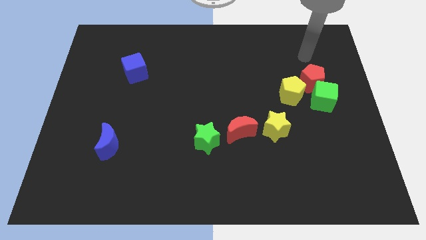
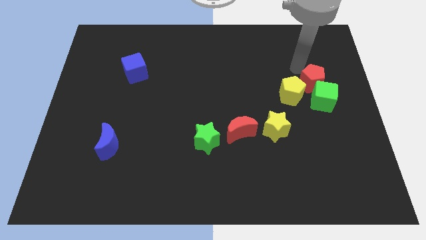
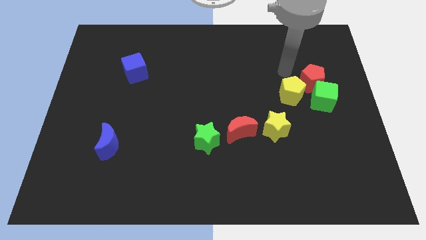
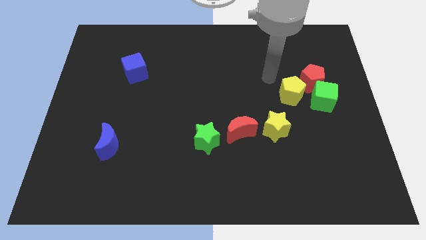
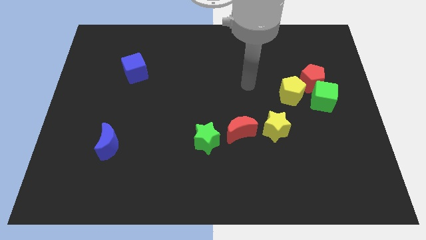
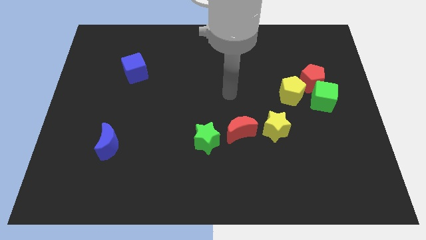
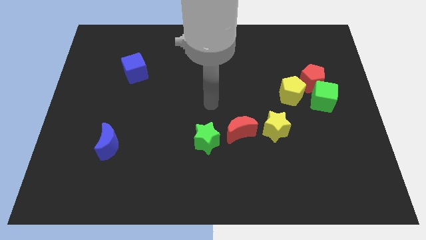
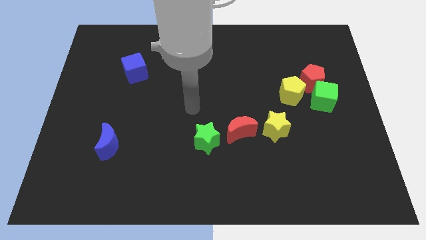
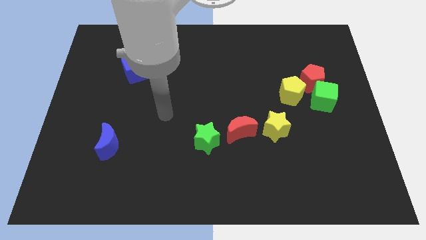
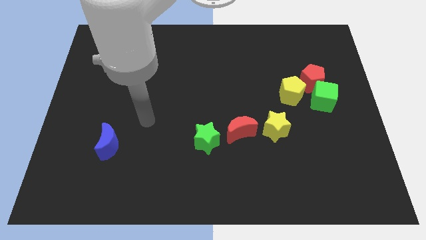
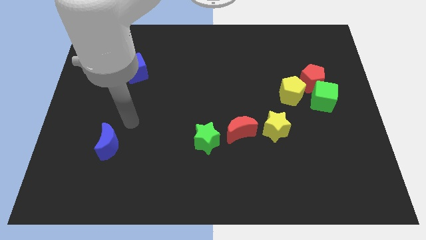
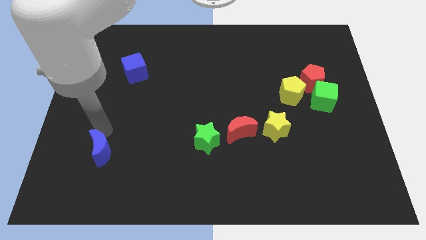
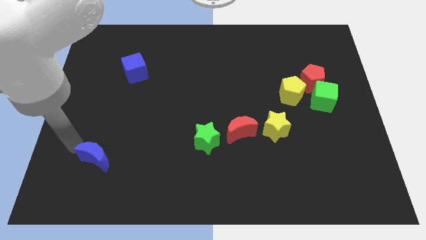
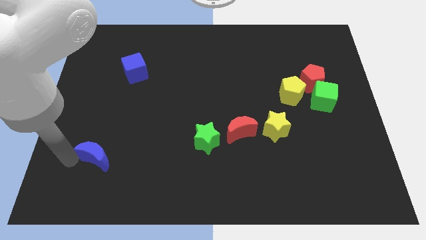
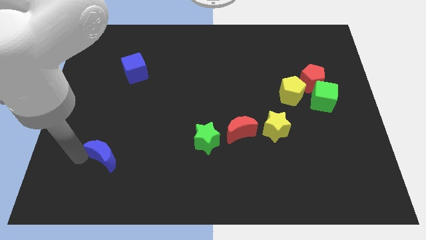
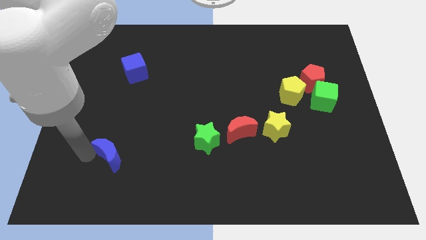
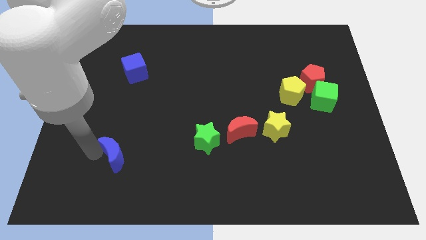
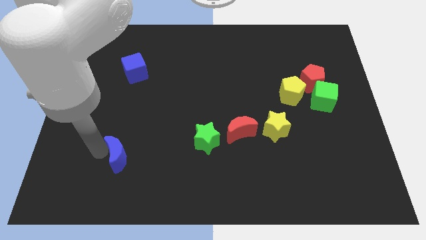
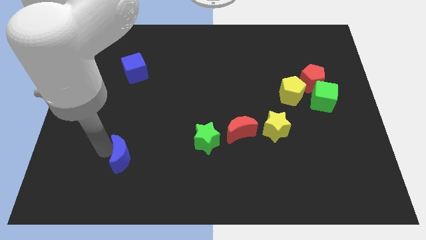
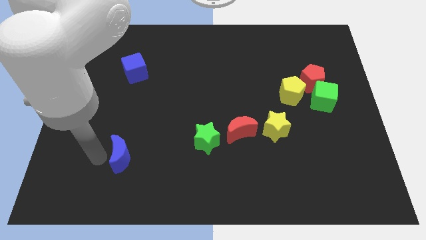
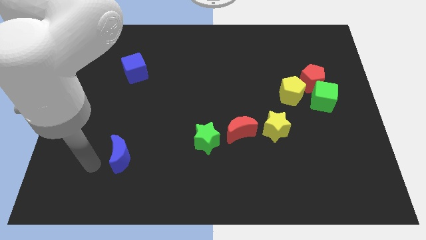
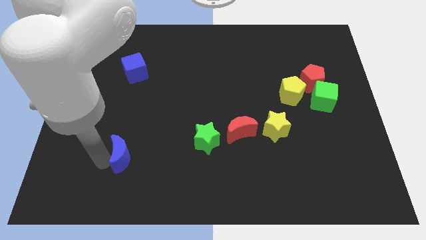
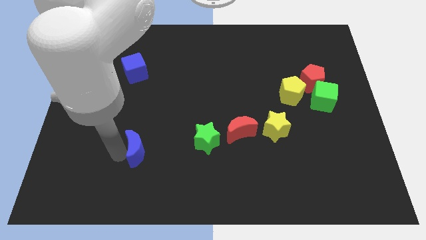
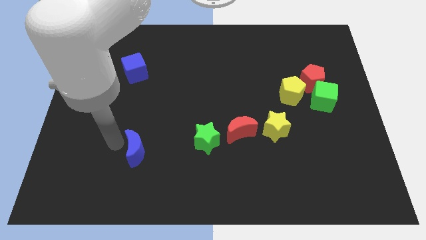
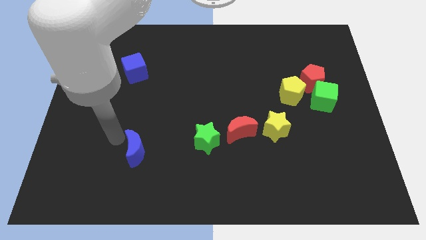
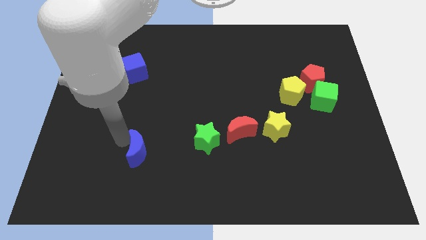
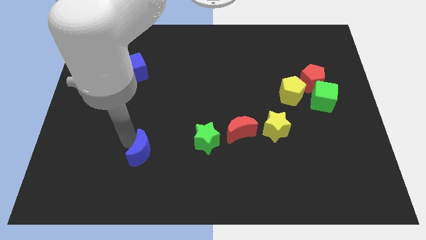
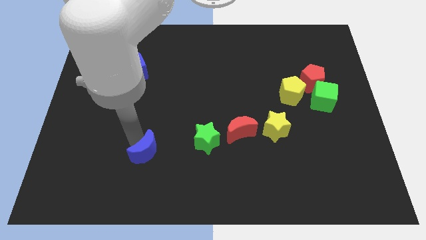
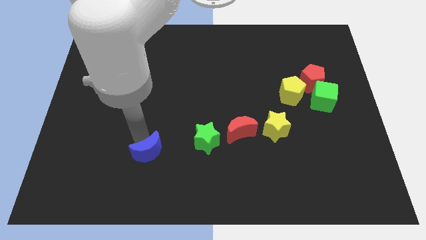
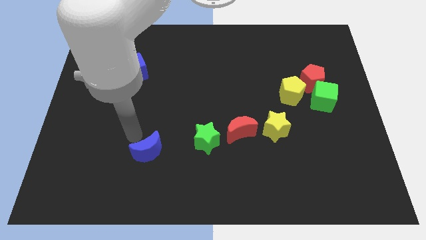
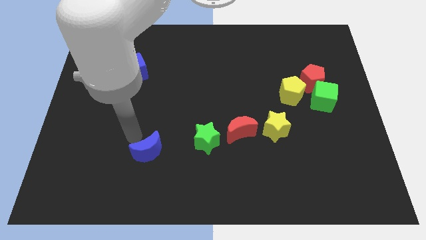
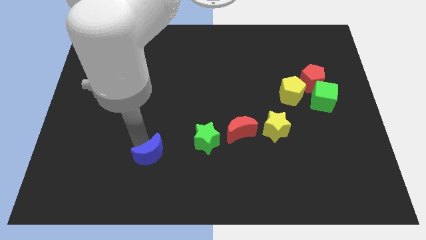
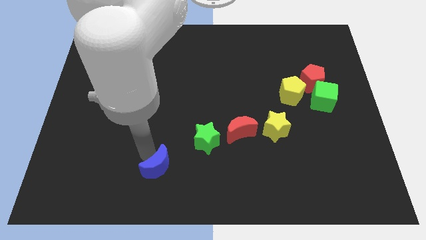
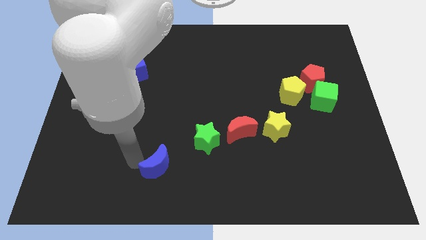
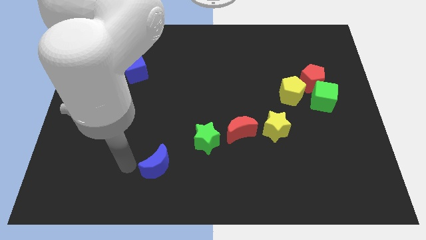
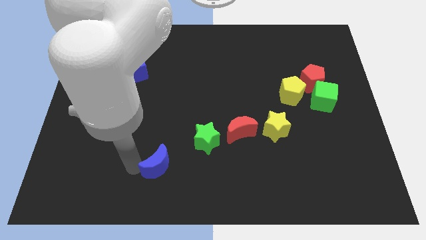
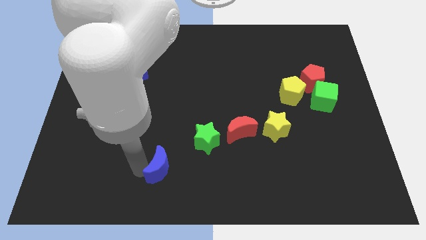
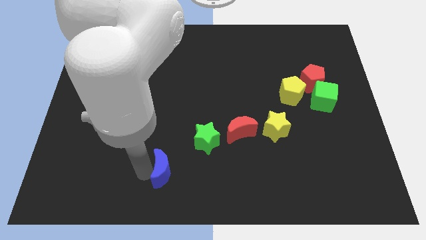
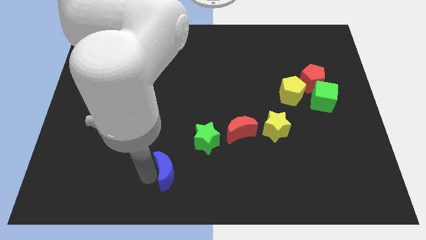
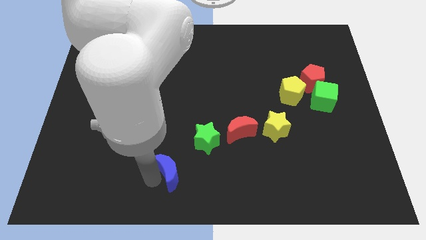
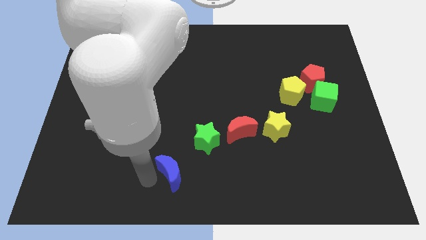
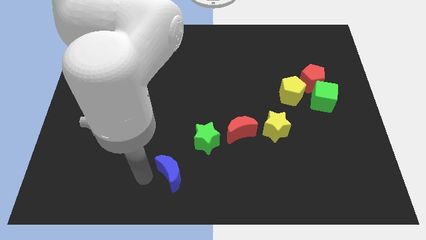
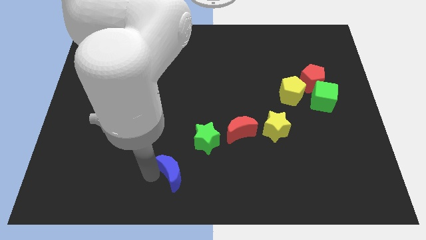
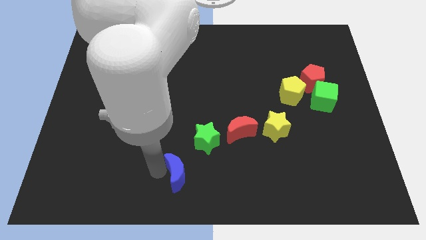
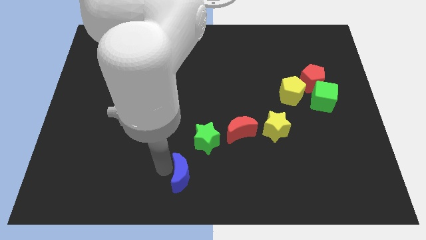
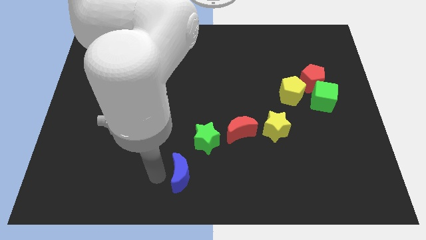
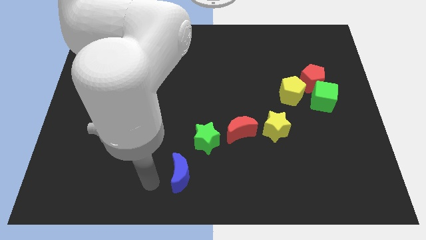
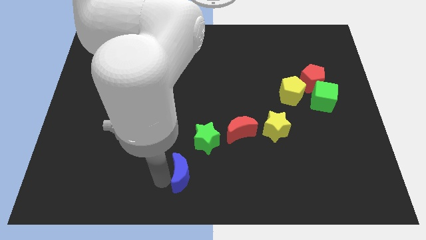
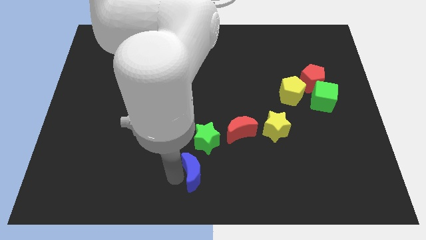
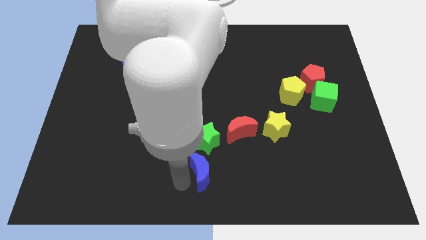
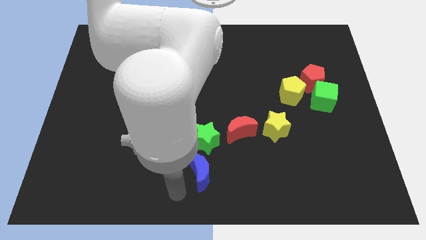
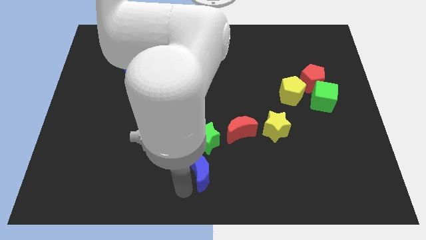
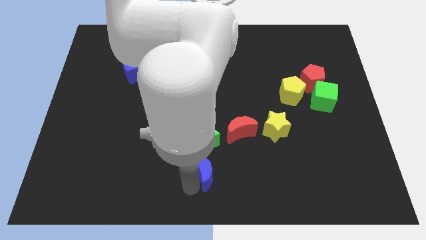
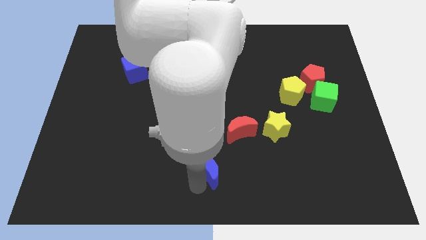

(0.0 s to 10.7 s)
slide the blue moon right

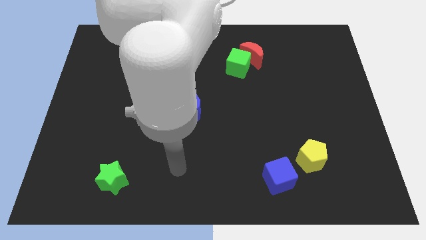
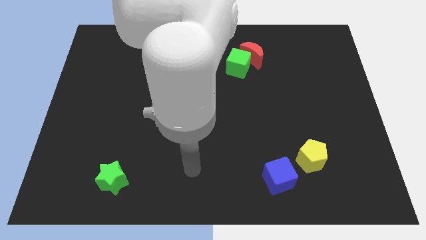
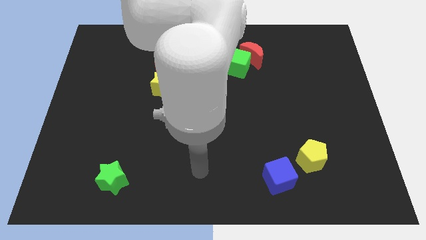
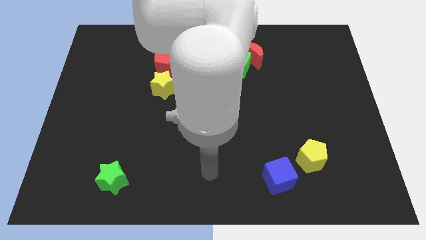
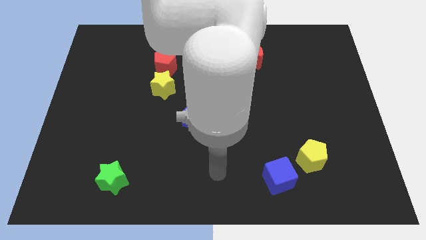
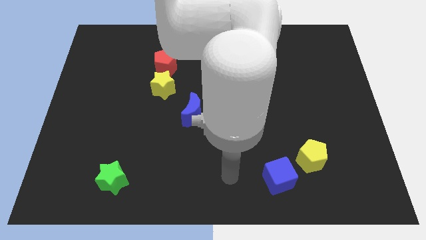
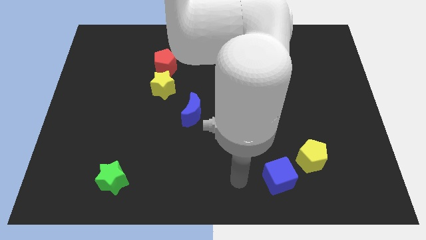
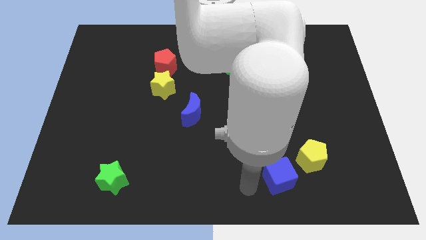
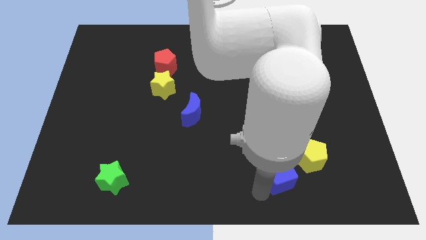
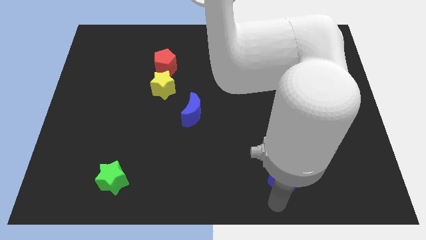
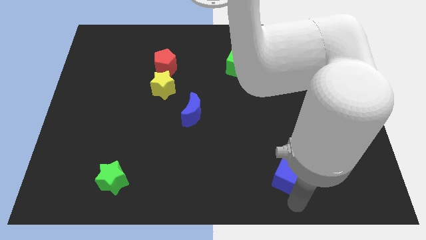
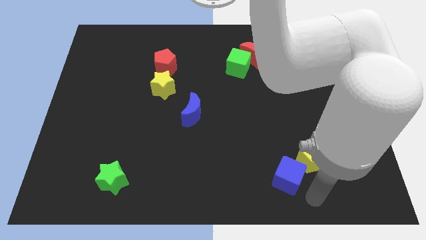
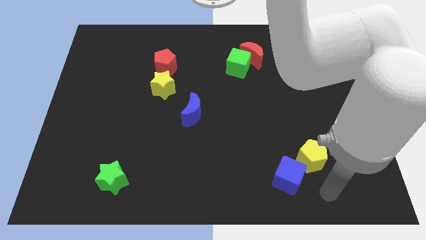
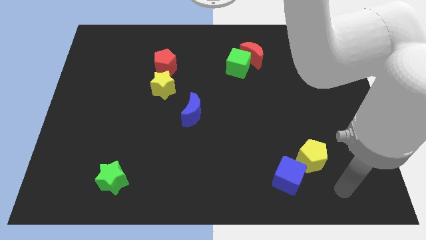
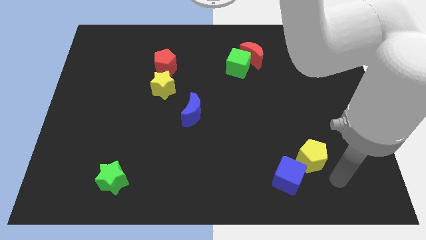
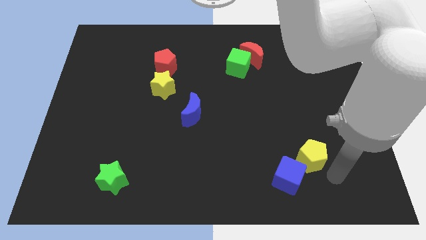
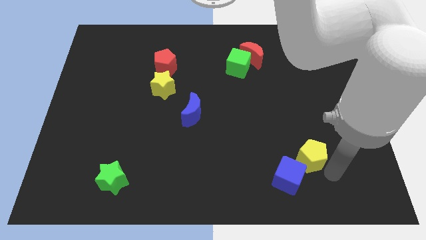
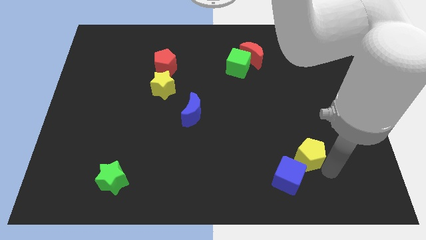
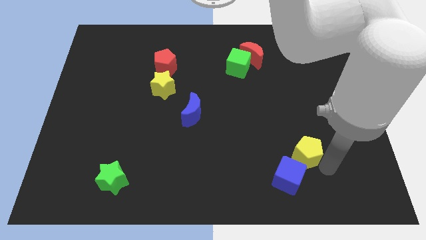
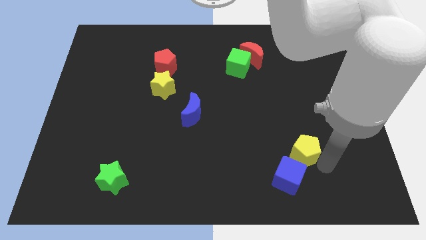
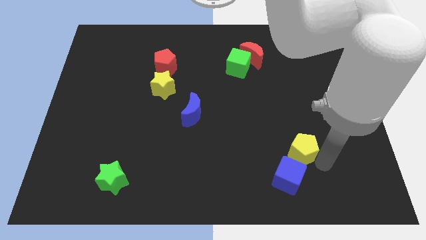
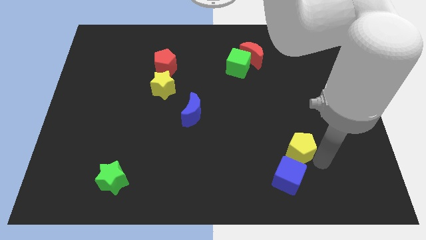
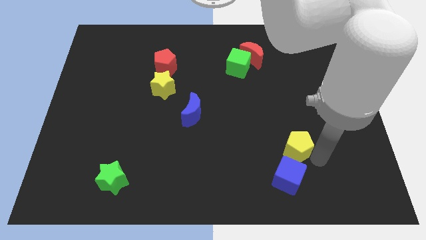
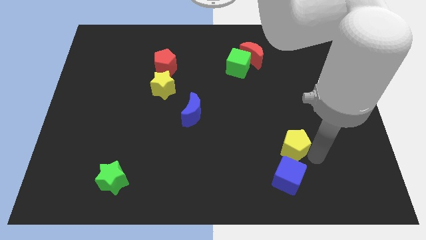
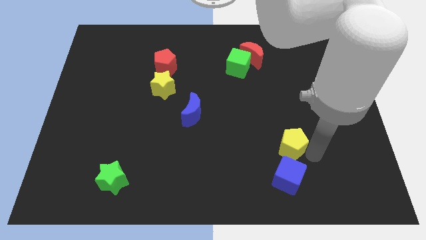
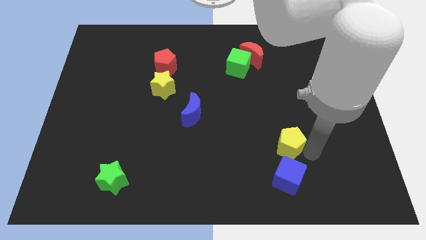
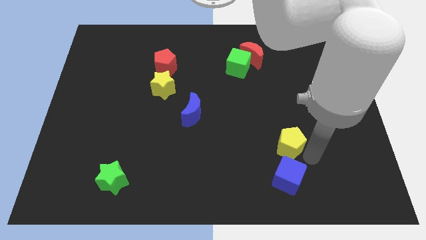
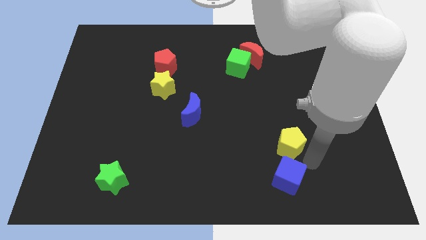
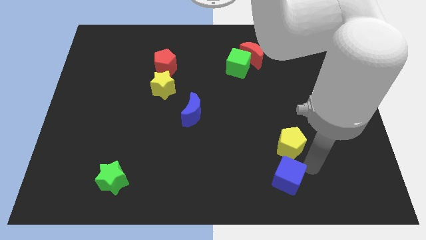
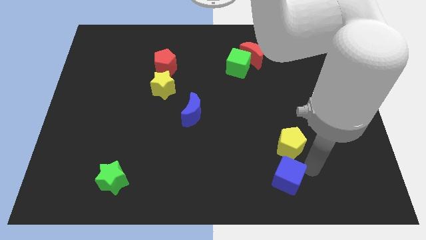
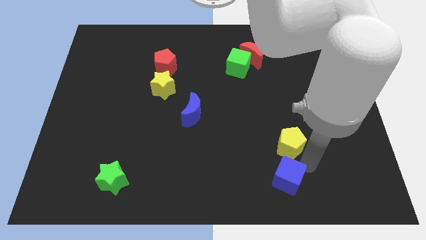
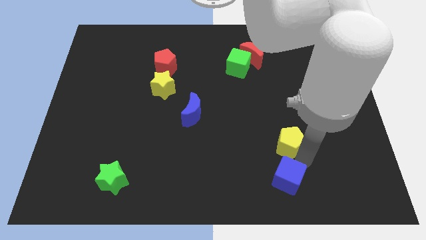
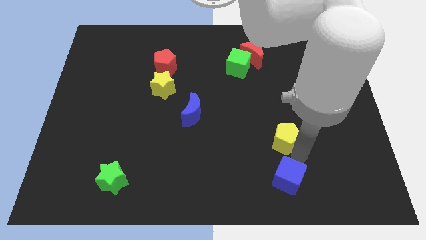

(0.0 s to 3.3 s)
slightly push the yellow pentagon upwards and then to the left
